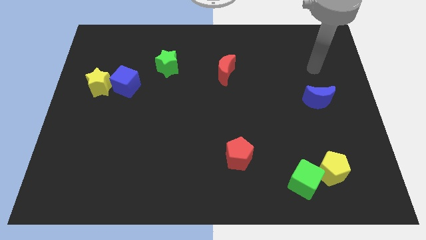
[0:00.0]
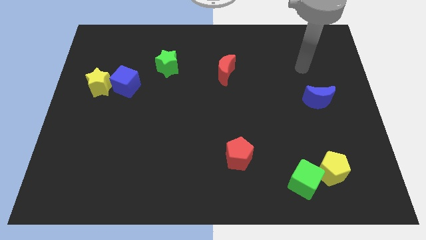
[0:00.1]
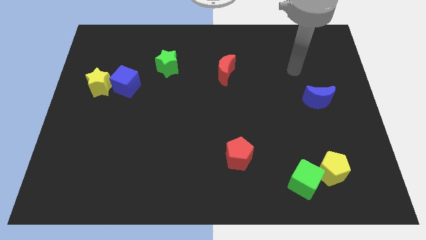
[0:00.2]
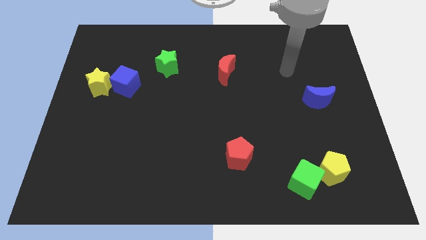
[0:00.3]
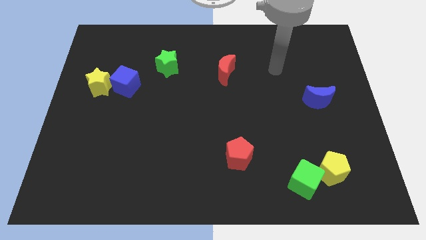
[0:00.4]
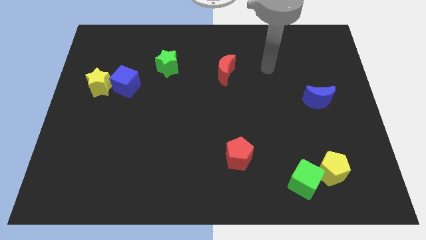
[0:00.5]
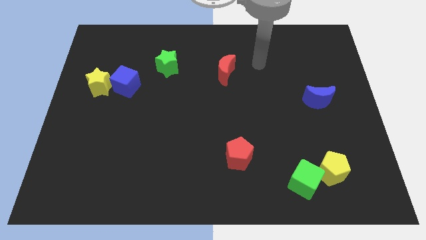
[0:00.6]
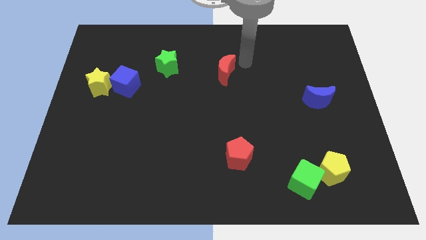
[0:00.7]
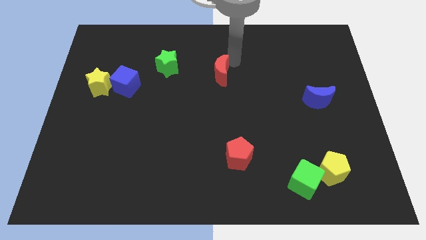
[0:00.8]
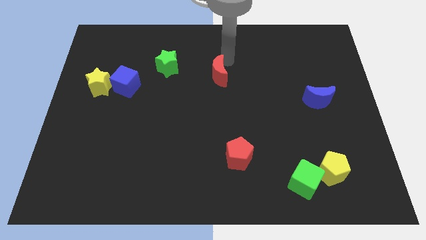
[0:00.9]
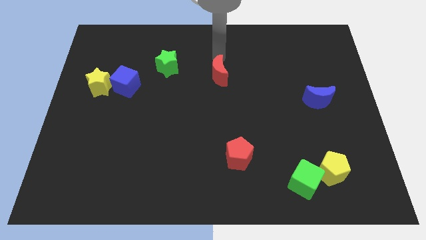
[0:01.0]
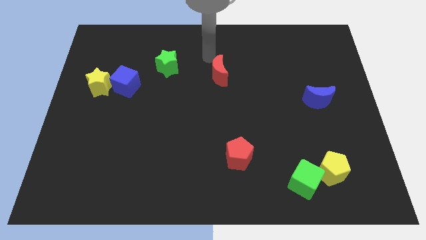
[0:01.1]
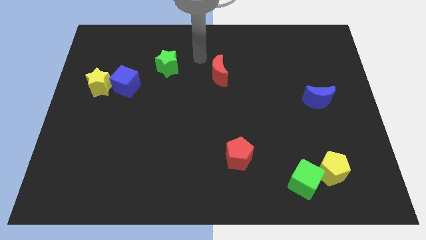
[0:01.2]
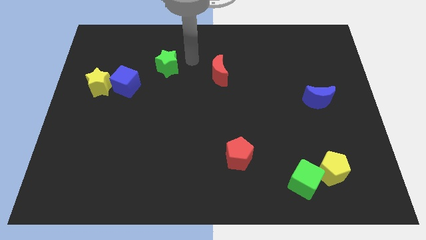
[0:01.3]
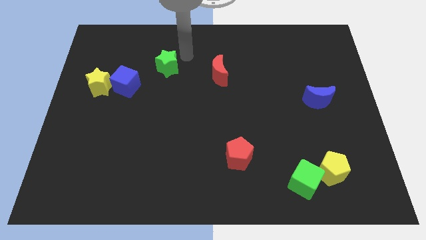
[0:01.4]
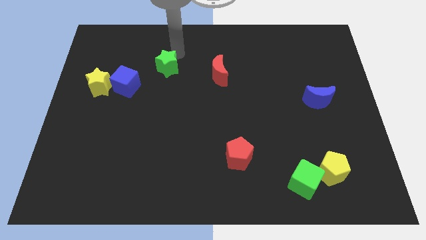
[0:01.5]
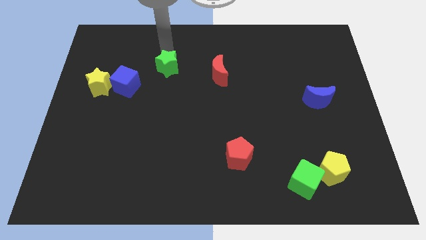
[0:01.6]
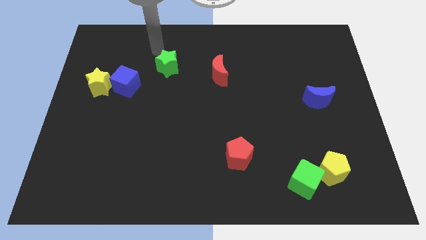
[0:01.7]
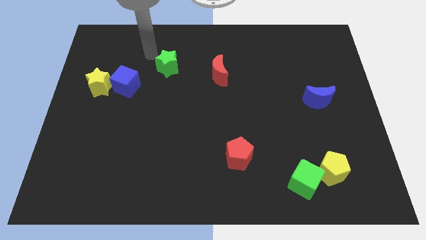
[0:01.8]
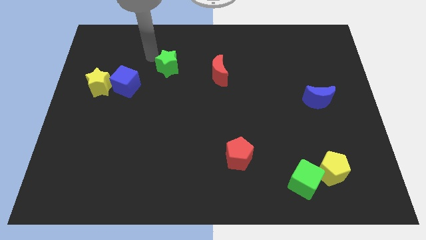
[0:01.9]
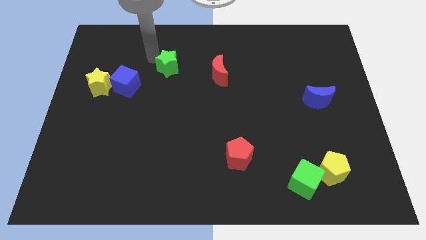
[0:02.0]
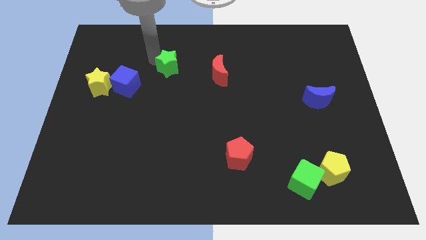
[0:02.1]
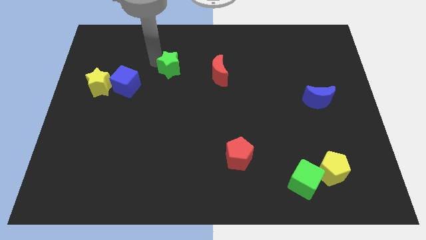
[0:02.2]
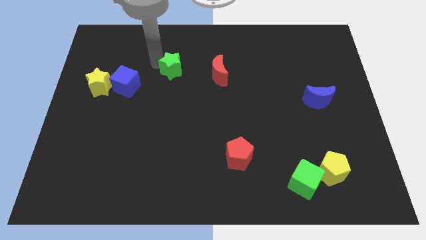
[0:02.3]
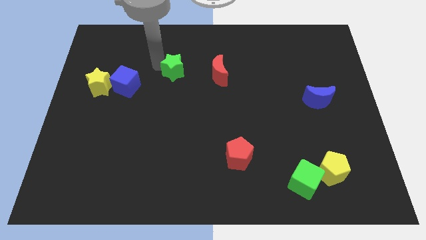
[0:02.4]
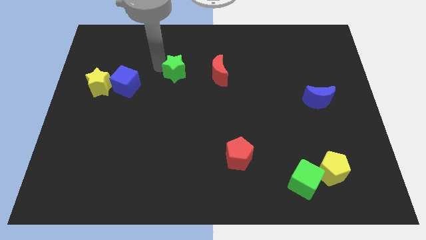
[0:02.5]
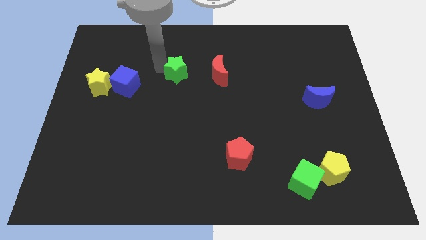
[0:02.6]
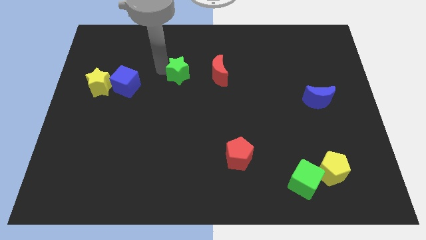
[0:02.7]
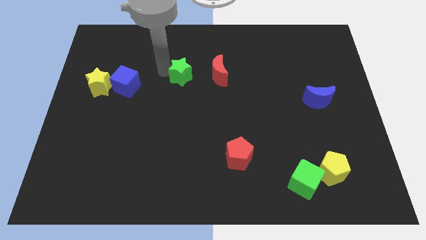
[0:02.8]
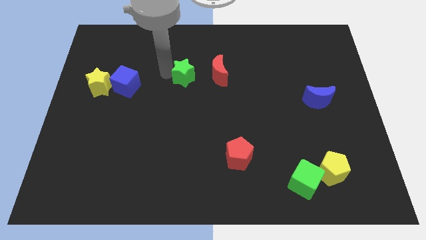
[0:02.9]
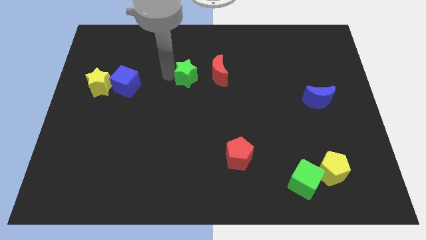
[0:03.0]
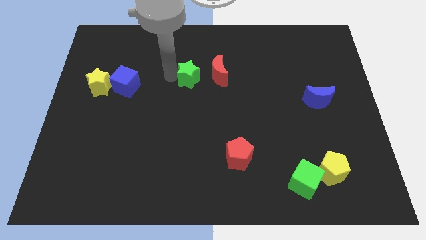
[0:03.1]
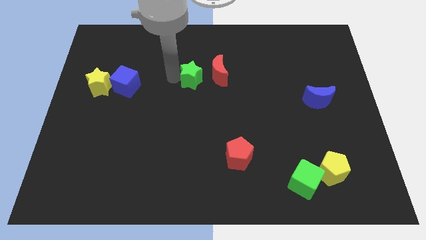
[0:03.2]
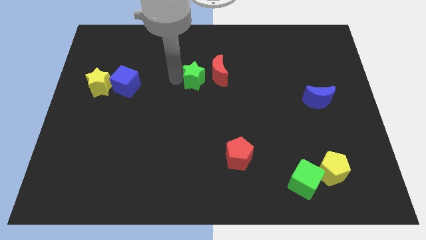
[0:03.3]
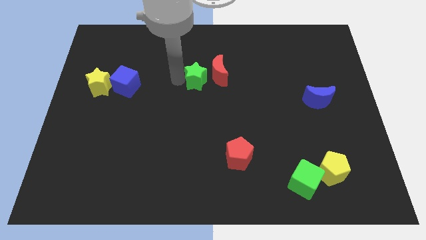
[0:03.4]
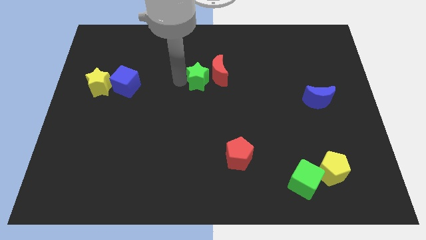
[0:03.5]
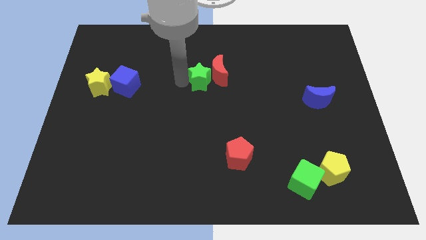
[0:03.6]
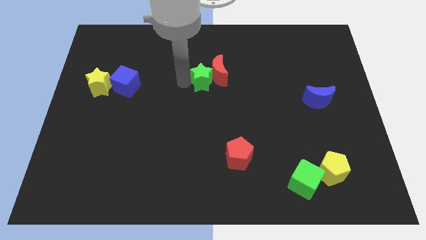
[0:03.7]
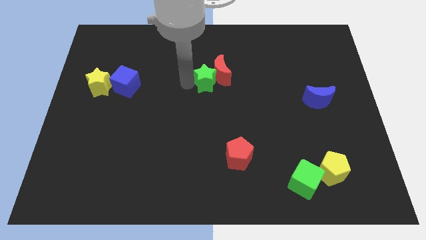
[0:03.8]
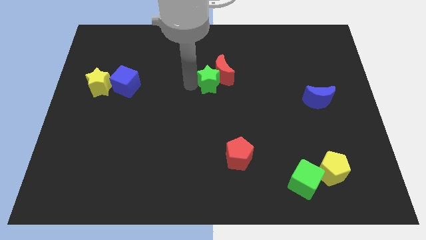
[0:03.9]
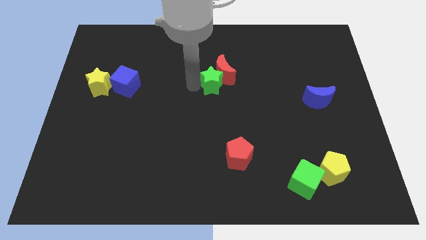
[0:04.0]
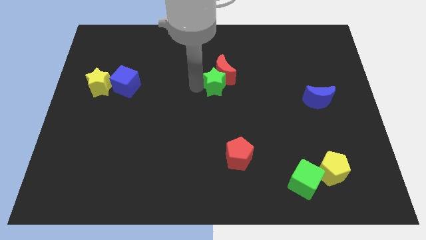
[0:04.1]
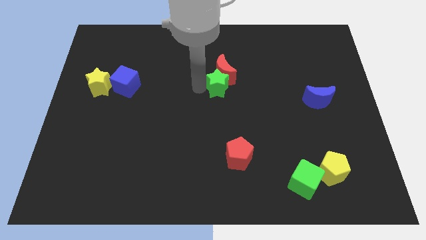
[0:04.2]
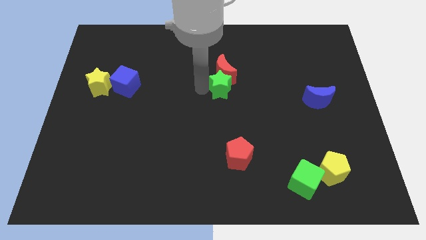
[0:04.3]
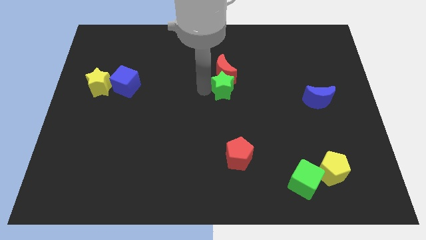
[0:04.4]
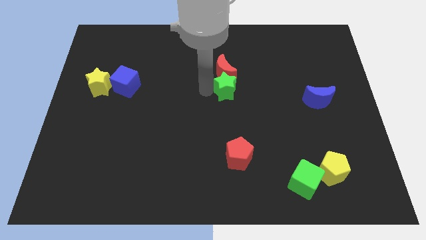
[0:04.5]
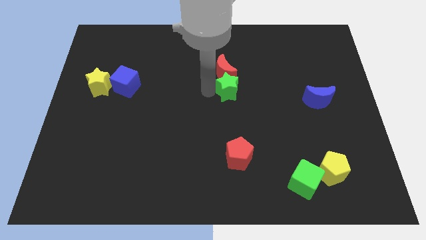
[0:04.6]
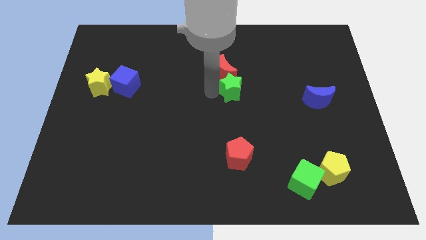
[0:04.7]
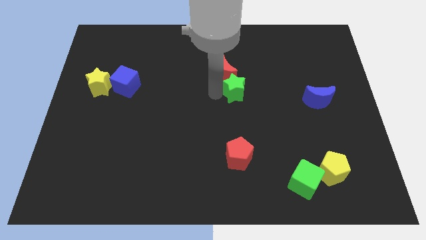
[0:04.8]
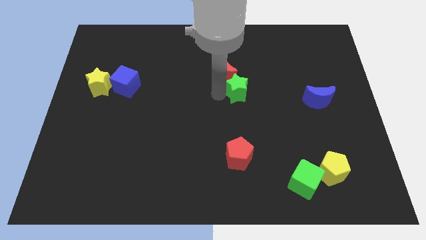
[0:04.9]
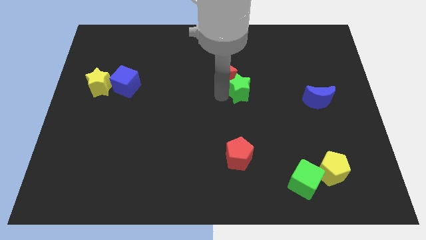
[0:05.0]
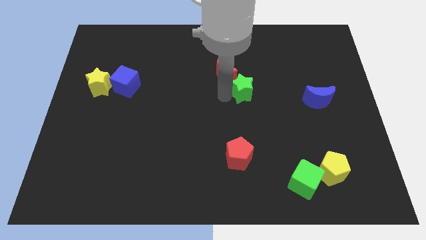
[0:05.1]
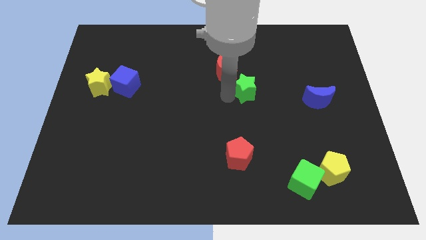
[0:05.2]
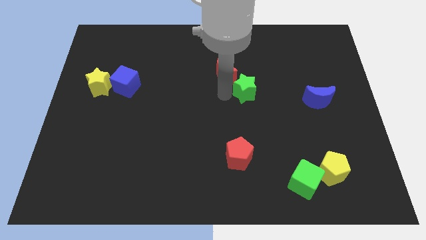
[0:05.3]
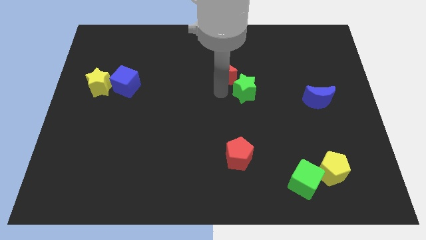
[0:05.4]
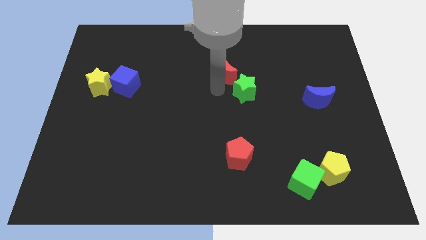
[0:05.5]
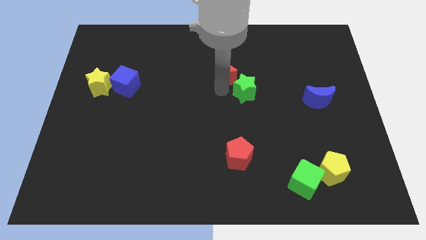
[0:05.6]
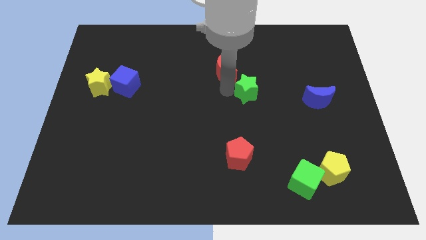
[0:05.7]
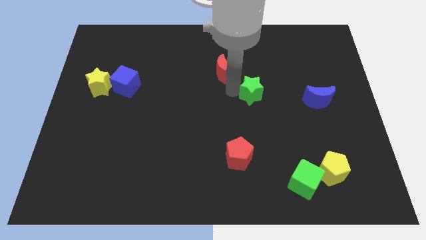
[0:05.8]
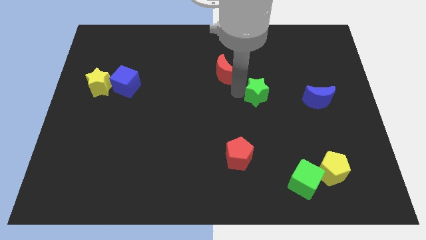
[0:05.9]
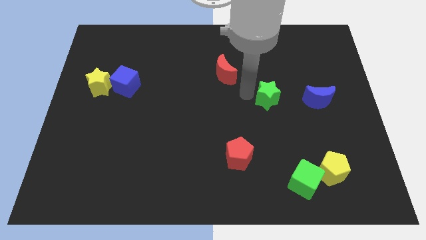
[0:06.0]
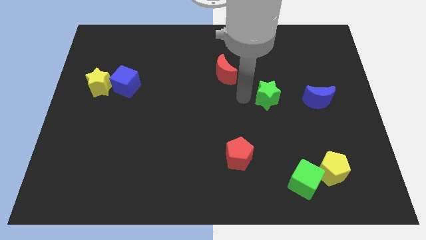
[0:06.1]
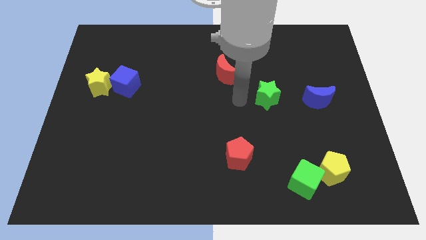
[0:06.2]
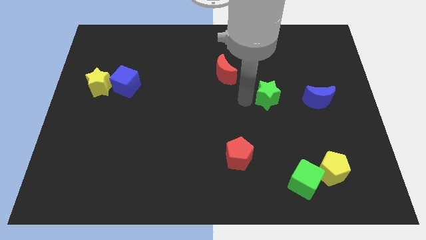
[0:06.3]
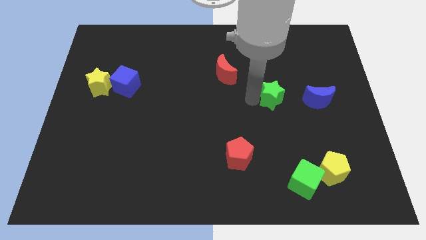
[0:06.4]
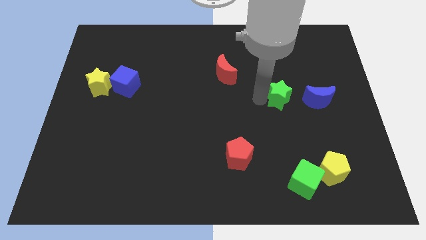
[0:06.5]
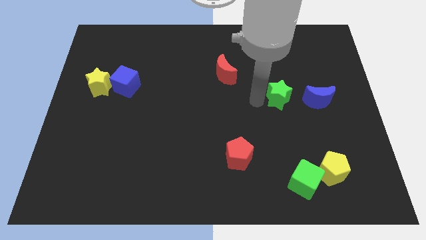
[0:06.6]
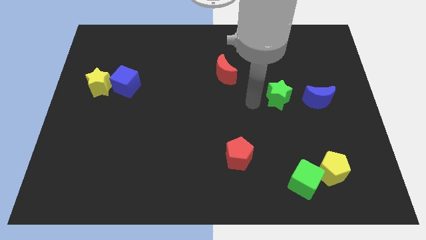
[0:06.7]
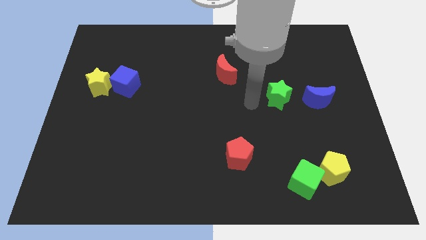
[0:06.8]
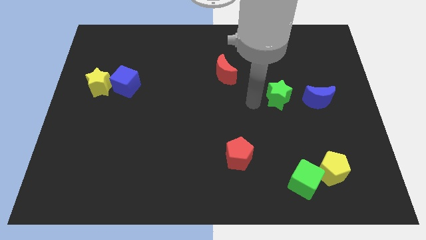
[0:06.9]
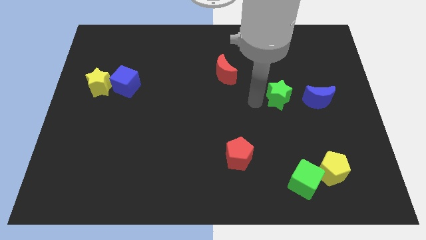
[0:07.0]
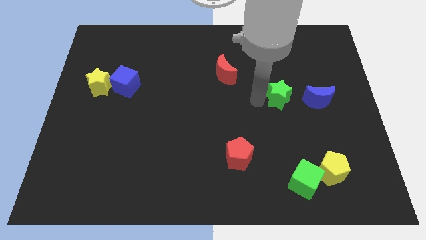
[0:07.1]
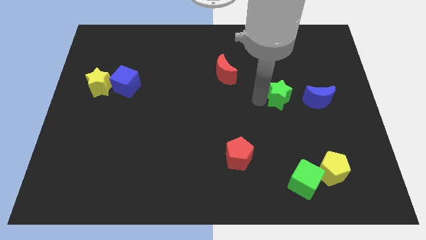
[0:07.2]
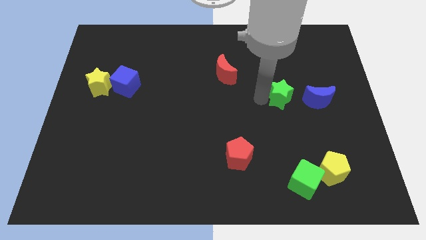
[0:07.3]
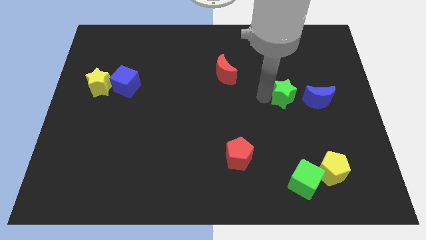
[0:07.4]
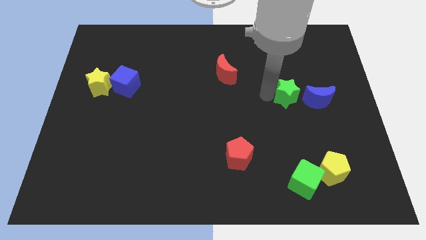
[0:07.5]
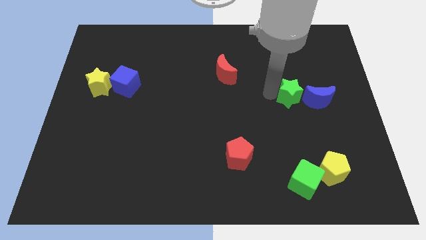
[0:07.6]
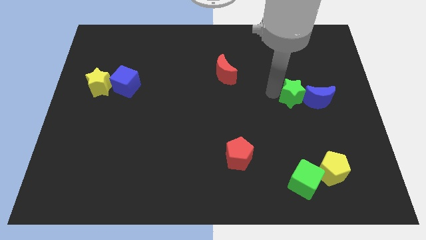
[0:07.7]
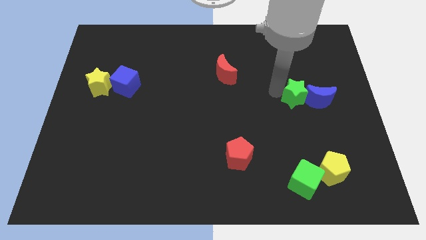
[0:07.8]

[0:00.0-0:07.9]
push the green star next to the blue moon
